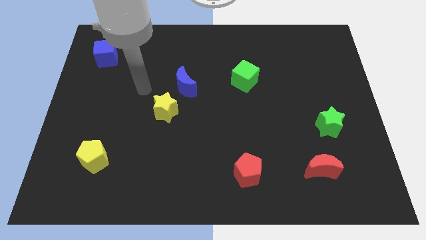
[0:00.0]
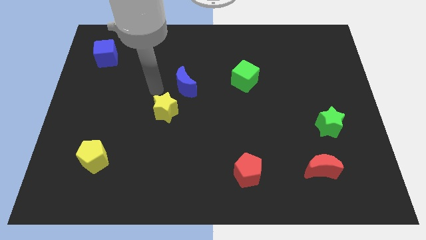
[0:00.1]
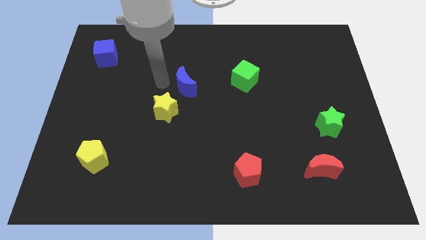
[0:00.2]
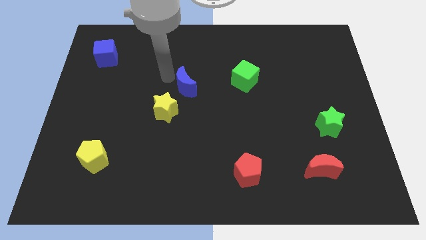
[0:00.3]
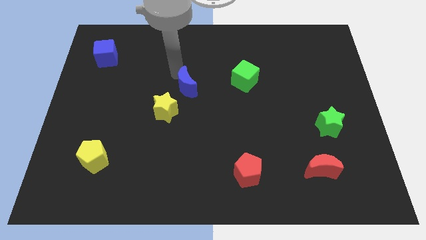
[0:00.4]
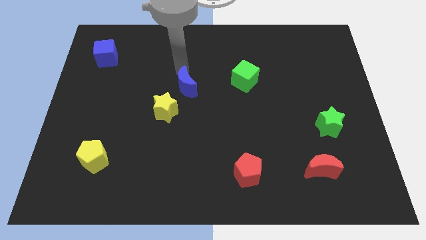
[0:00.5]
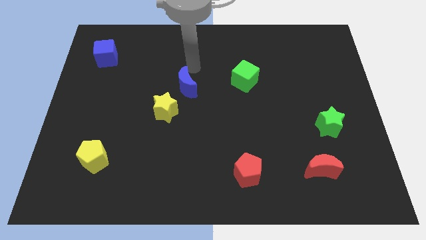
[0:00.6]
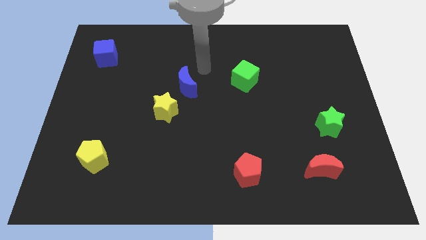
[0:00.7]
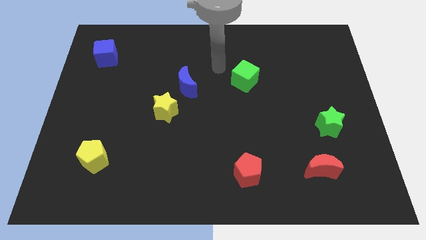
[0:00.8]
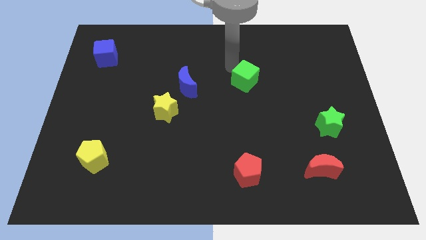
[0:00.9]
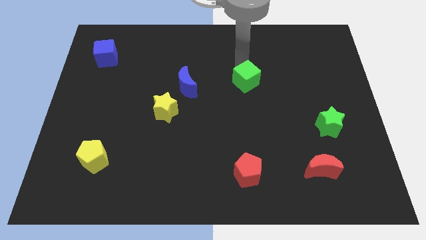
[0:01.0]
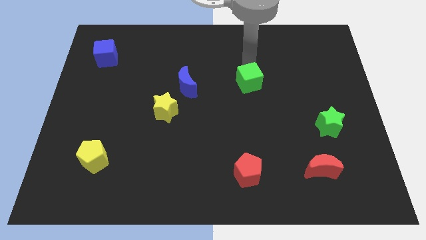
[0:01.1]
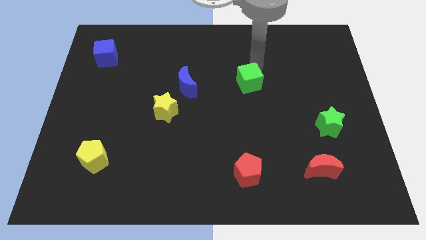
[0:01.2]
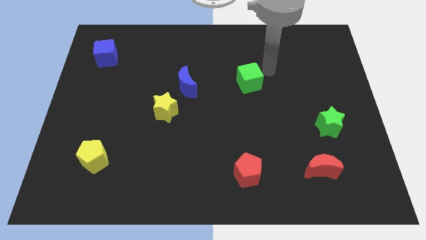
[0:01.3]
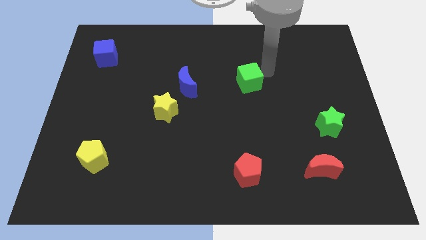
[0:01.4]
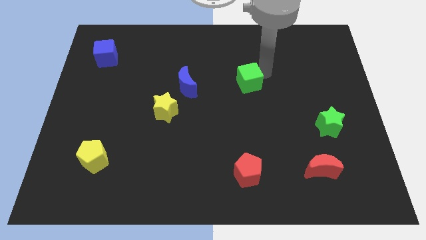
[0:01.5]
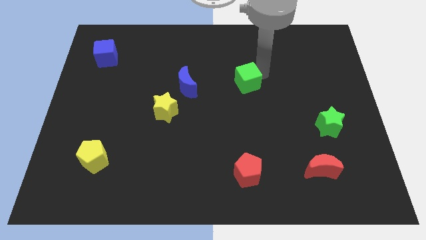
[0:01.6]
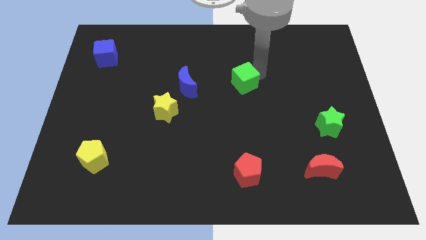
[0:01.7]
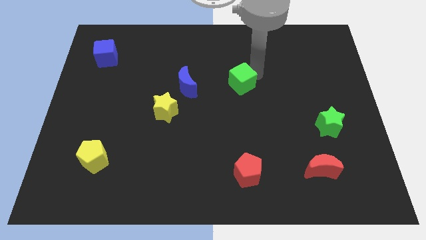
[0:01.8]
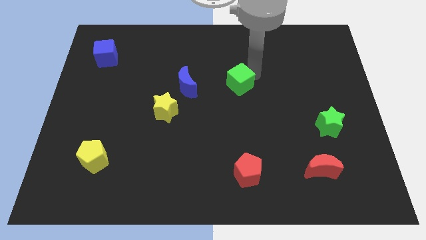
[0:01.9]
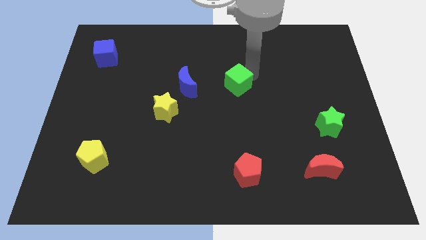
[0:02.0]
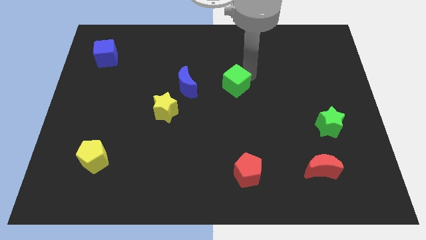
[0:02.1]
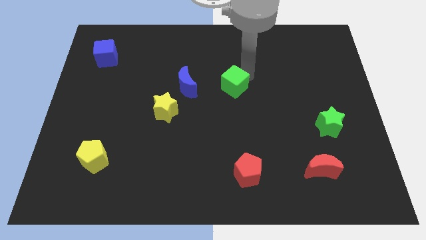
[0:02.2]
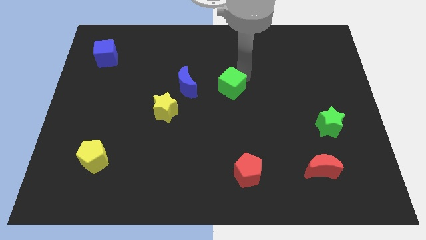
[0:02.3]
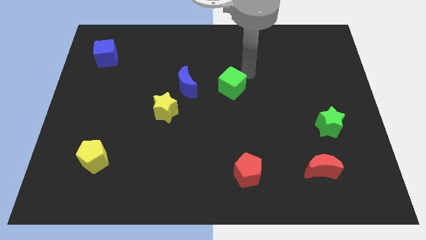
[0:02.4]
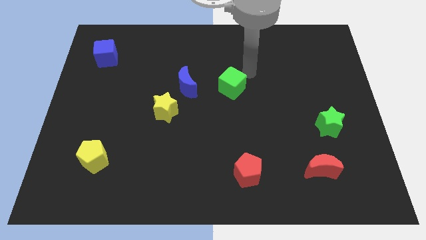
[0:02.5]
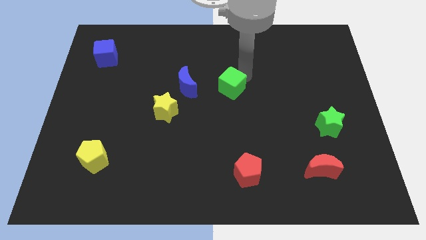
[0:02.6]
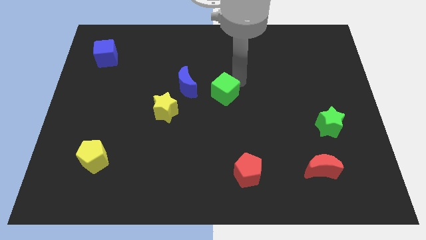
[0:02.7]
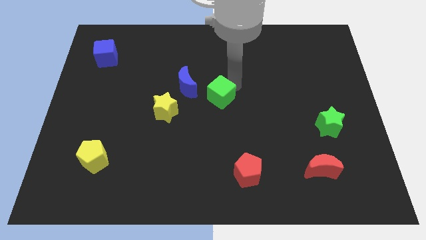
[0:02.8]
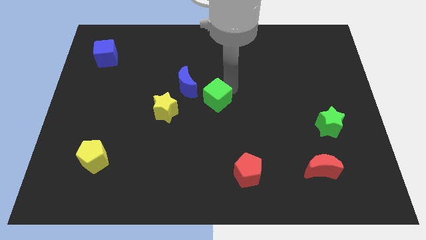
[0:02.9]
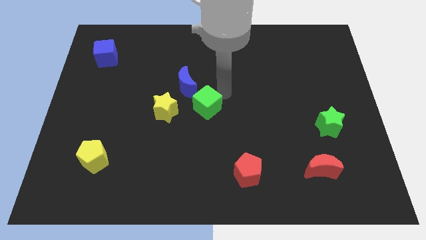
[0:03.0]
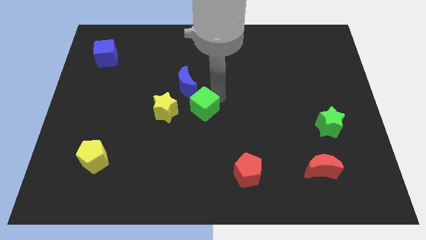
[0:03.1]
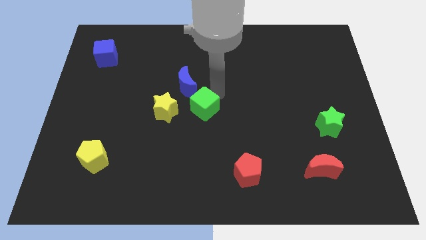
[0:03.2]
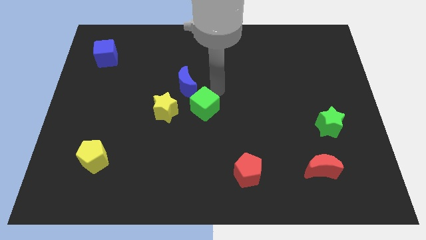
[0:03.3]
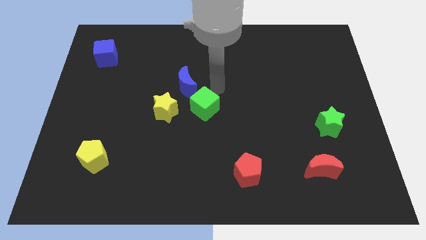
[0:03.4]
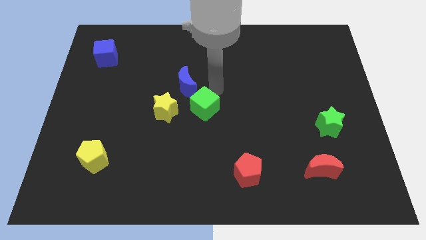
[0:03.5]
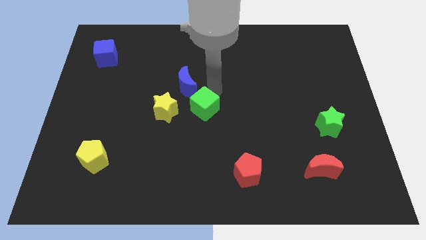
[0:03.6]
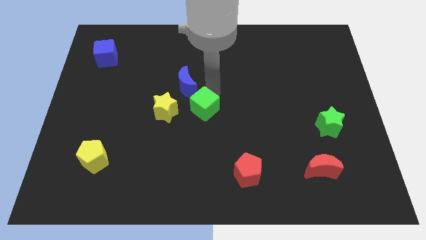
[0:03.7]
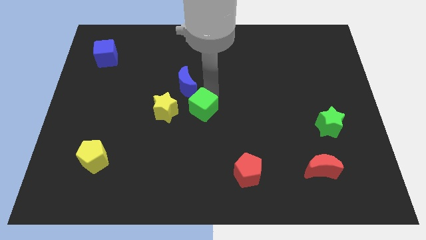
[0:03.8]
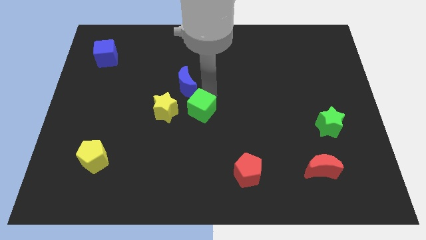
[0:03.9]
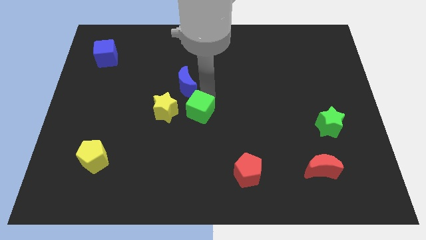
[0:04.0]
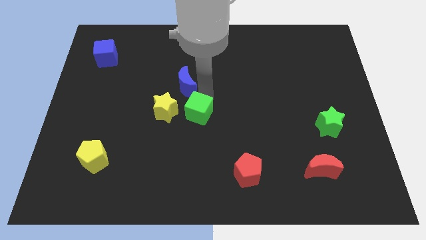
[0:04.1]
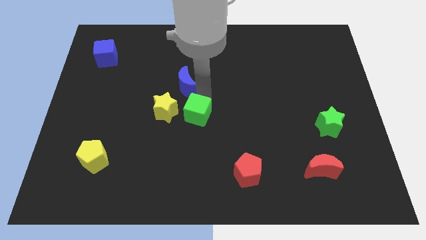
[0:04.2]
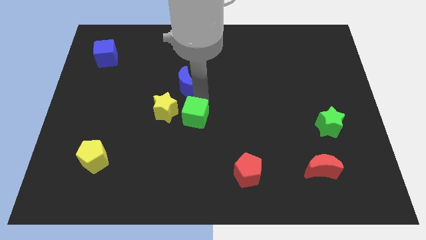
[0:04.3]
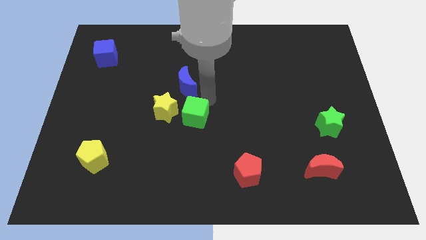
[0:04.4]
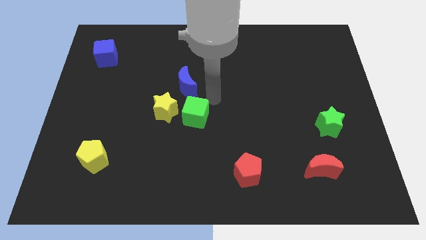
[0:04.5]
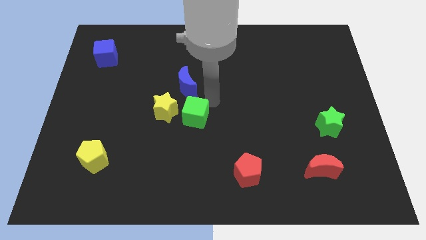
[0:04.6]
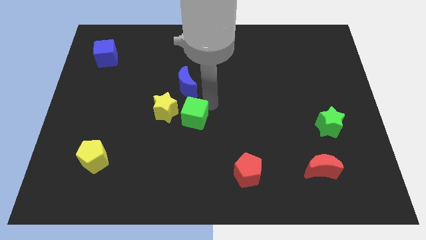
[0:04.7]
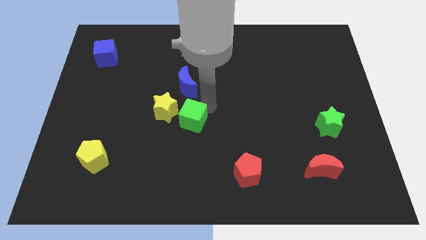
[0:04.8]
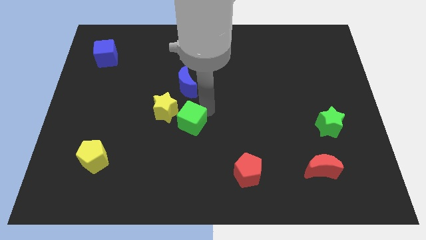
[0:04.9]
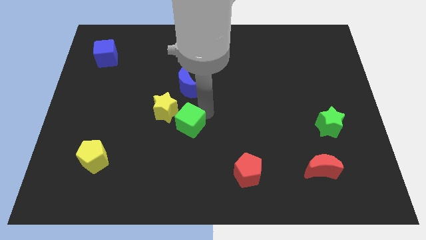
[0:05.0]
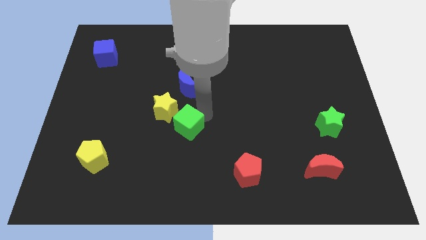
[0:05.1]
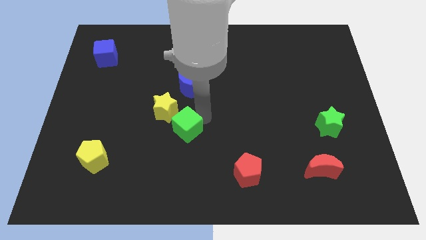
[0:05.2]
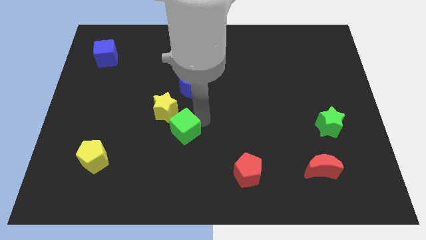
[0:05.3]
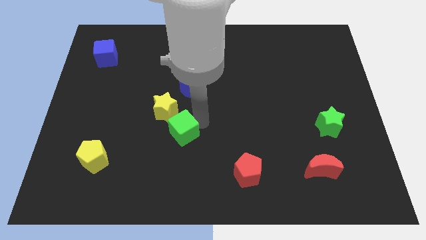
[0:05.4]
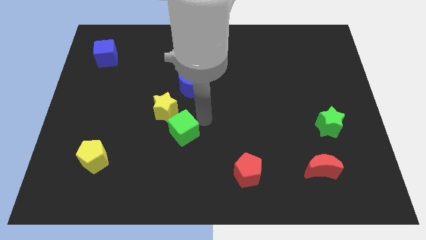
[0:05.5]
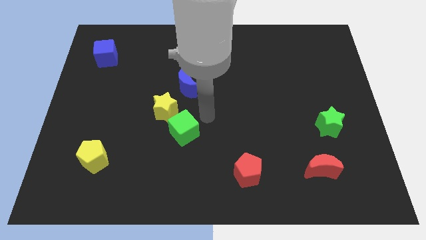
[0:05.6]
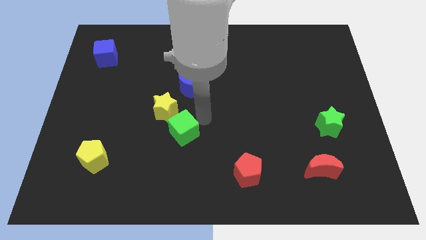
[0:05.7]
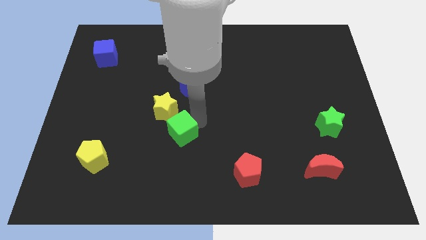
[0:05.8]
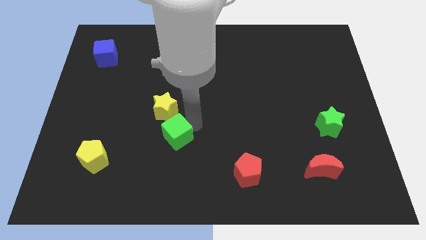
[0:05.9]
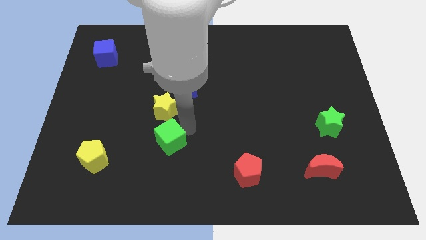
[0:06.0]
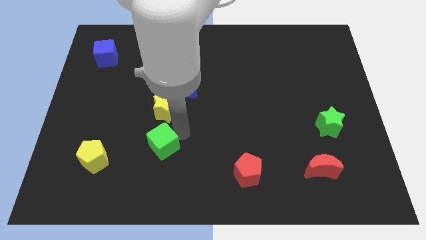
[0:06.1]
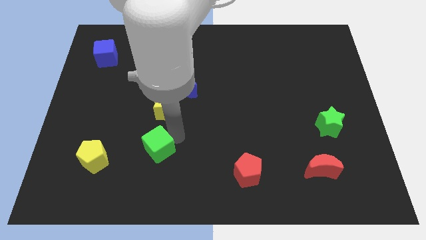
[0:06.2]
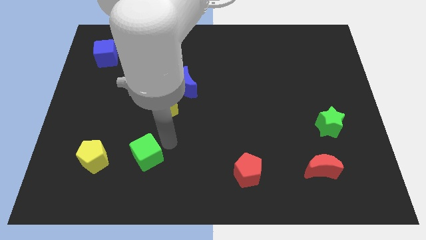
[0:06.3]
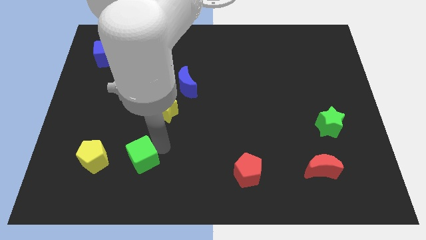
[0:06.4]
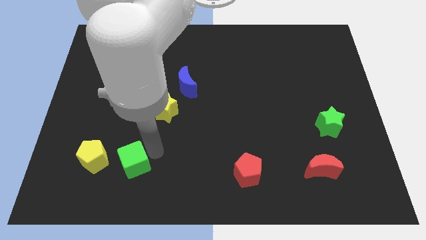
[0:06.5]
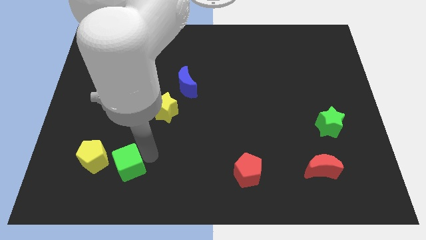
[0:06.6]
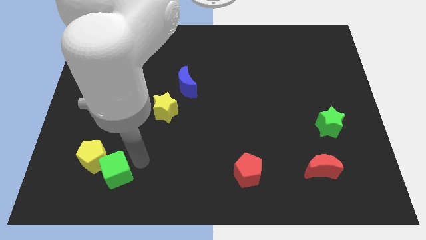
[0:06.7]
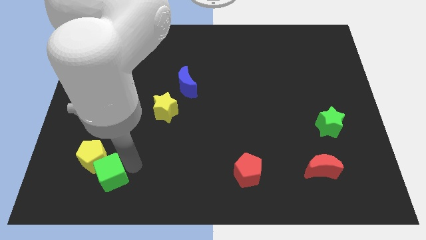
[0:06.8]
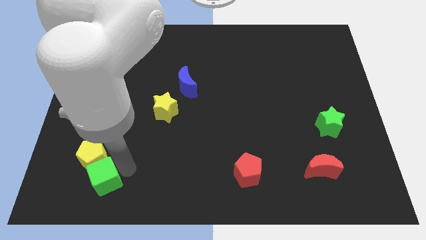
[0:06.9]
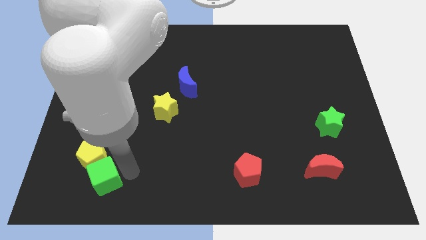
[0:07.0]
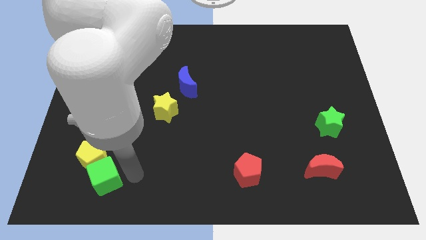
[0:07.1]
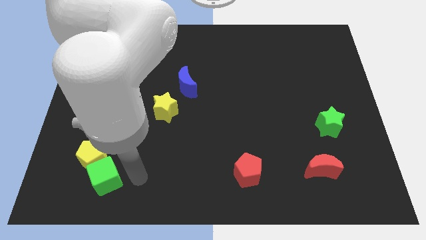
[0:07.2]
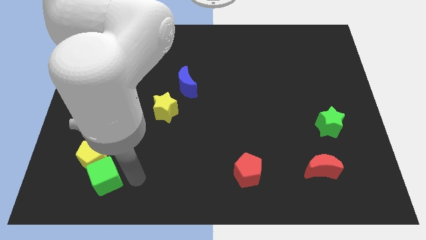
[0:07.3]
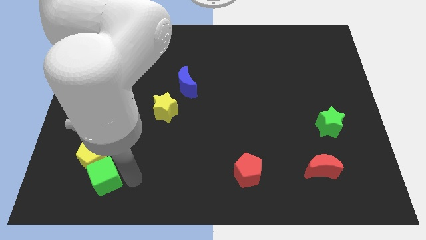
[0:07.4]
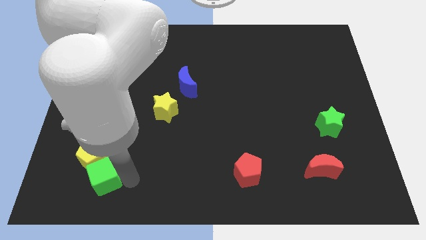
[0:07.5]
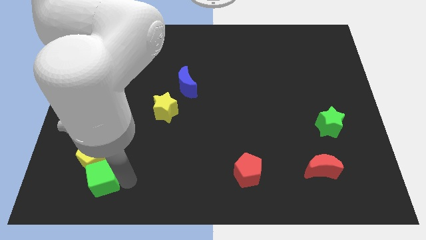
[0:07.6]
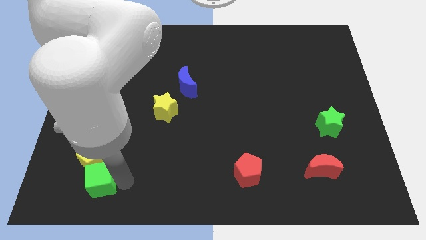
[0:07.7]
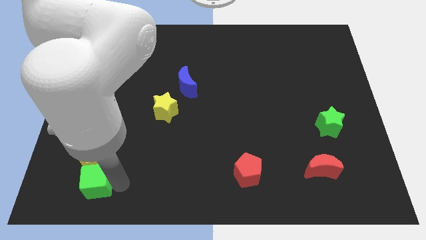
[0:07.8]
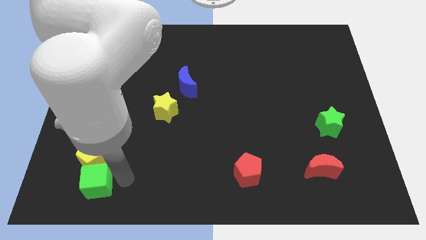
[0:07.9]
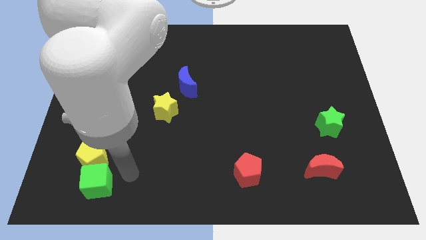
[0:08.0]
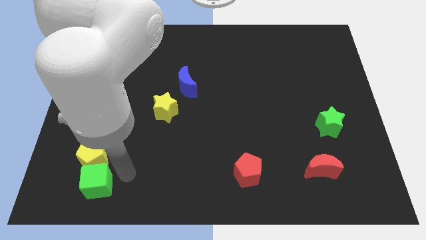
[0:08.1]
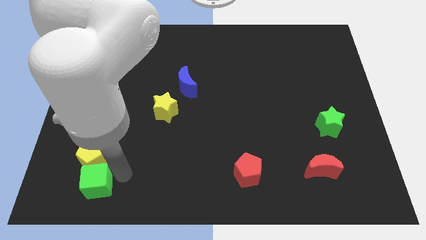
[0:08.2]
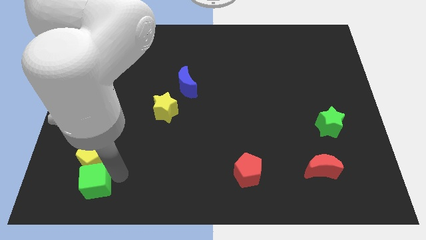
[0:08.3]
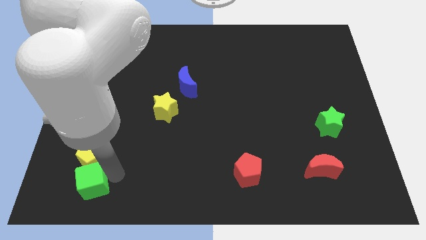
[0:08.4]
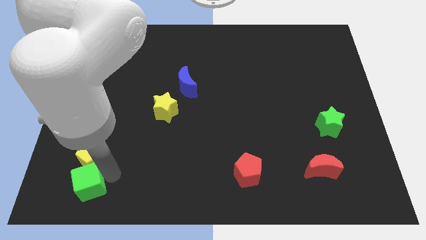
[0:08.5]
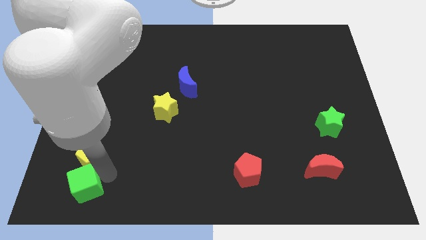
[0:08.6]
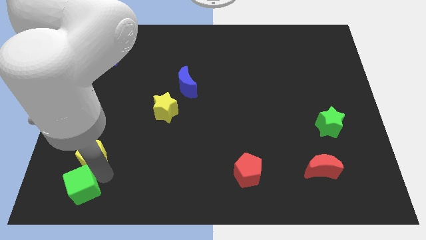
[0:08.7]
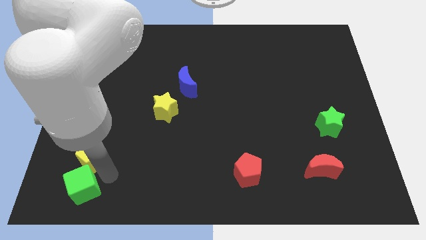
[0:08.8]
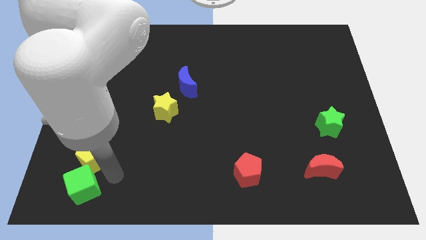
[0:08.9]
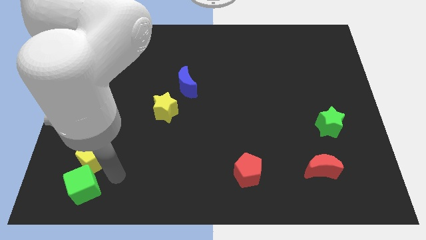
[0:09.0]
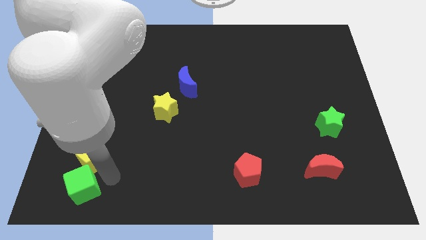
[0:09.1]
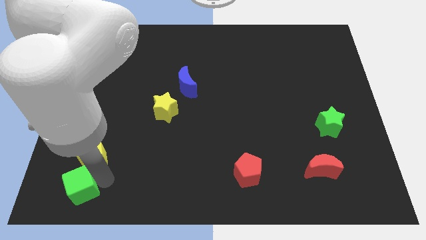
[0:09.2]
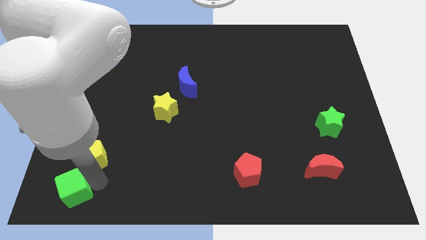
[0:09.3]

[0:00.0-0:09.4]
move the green cube to the bottom left corner
